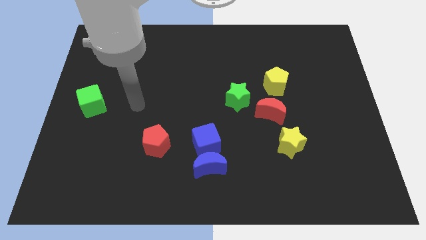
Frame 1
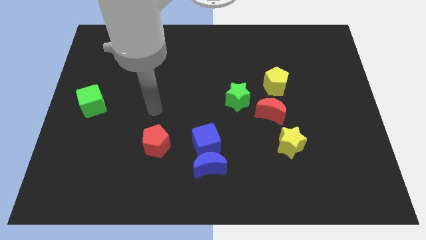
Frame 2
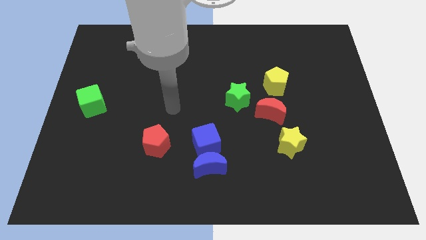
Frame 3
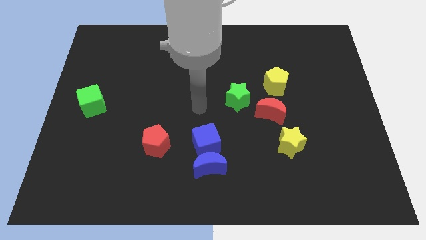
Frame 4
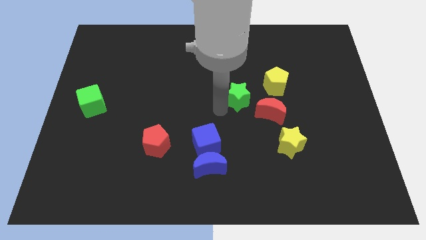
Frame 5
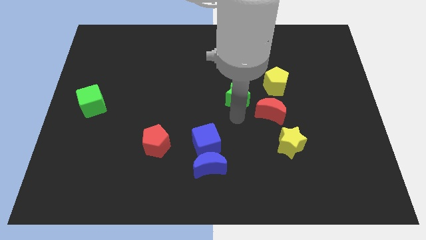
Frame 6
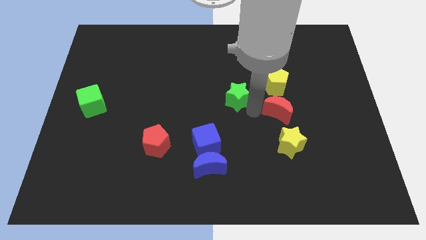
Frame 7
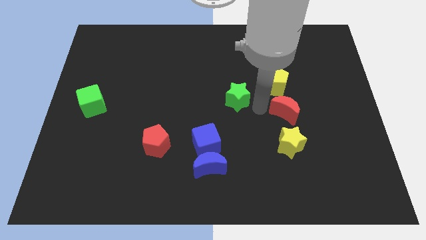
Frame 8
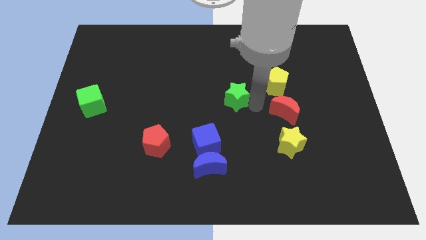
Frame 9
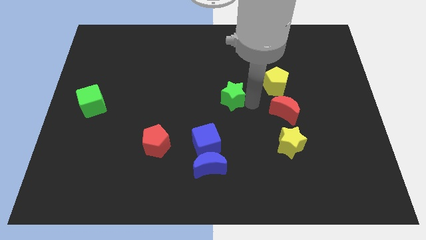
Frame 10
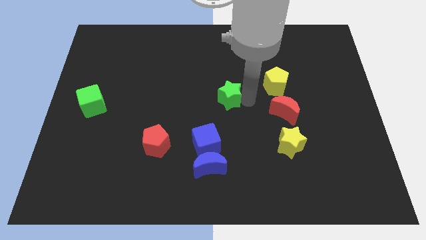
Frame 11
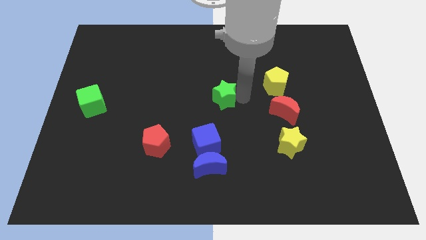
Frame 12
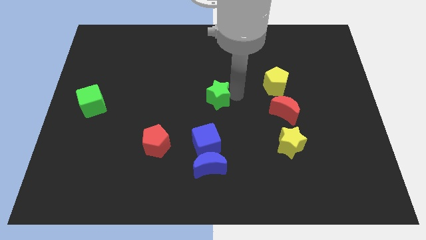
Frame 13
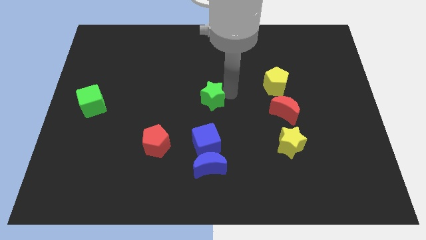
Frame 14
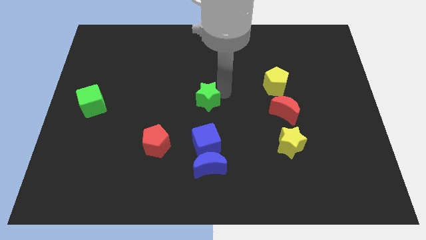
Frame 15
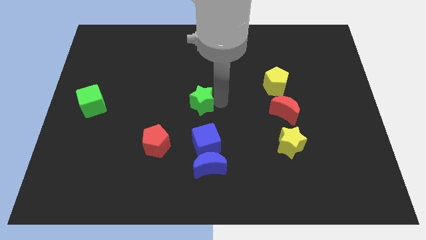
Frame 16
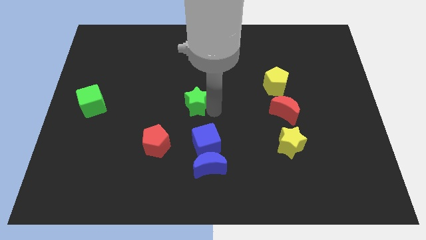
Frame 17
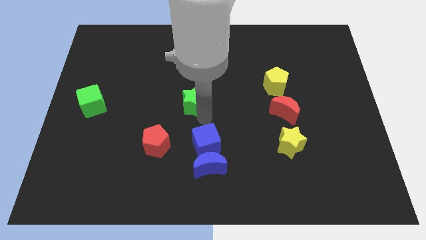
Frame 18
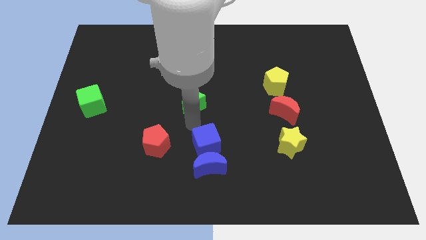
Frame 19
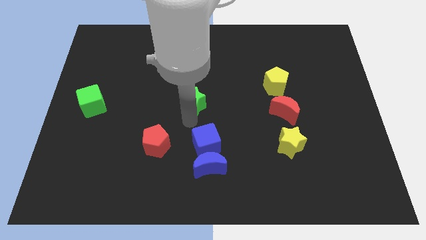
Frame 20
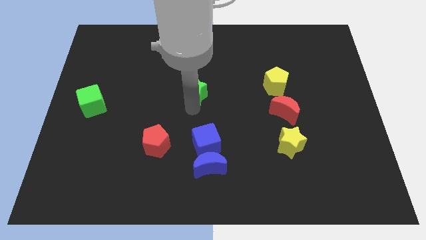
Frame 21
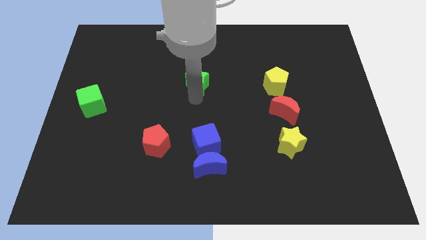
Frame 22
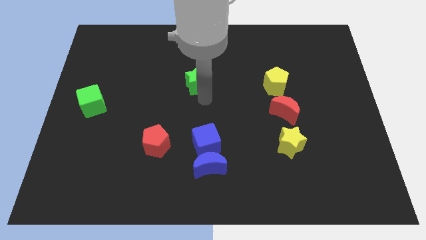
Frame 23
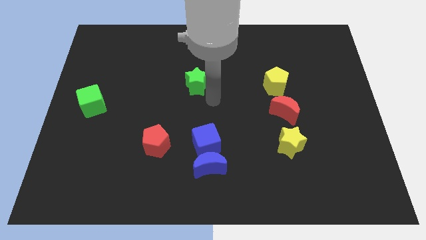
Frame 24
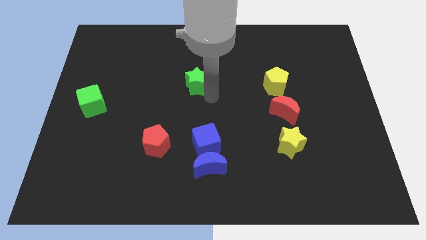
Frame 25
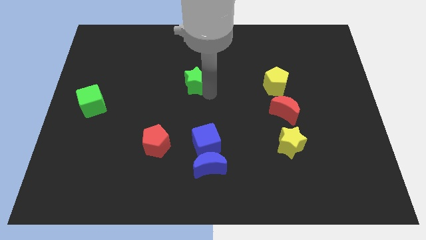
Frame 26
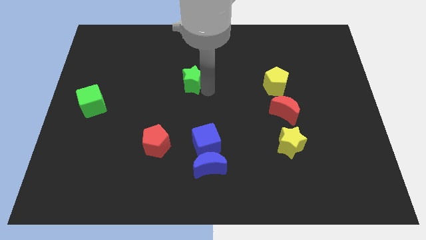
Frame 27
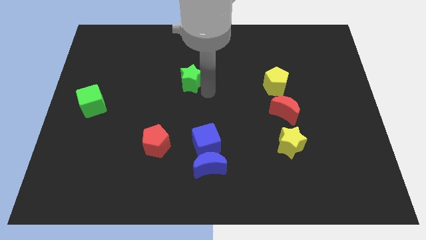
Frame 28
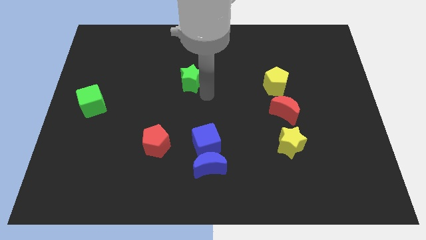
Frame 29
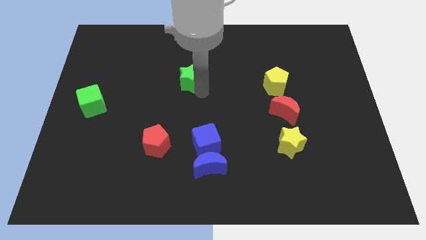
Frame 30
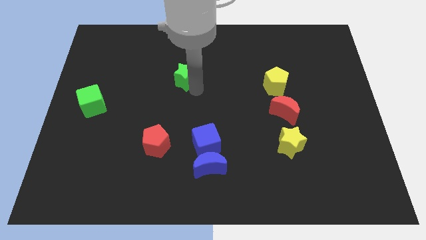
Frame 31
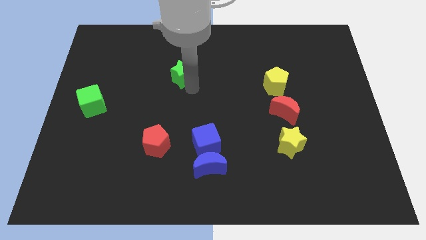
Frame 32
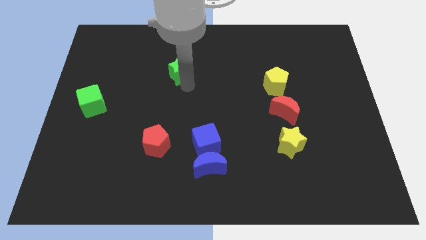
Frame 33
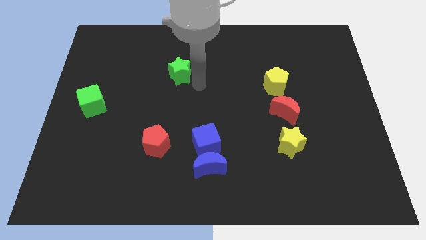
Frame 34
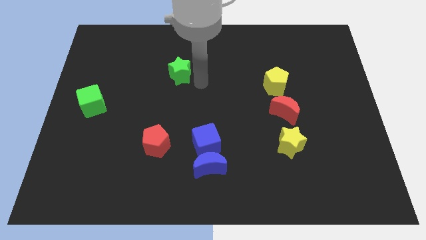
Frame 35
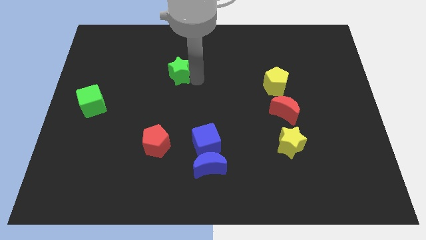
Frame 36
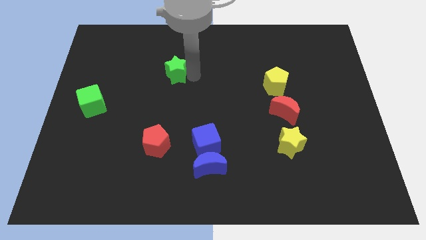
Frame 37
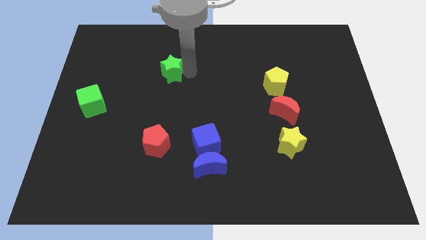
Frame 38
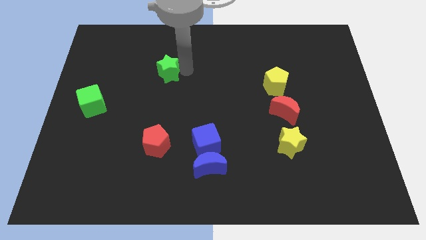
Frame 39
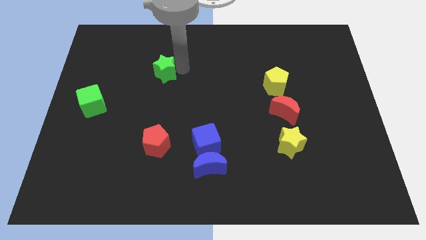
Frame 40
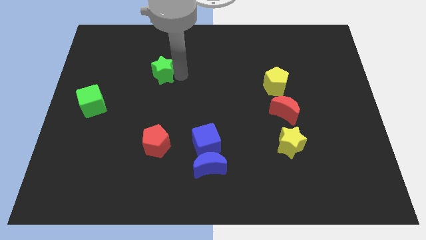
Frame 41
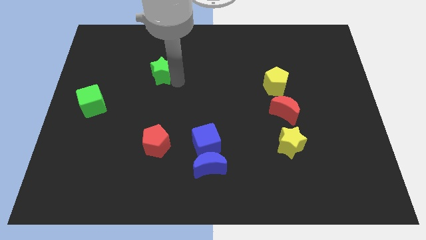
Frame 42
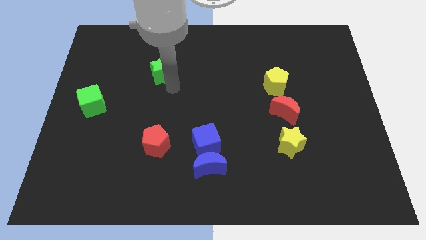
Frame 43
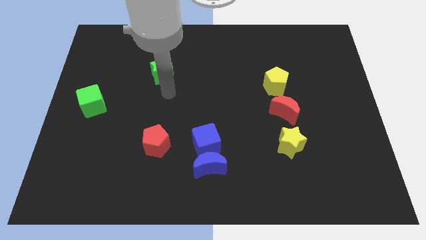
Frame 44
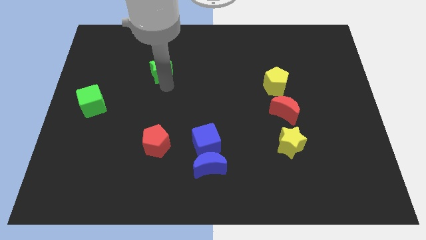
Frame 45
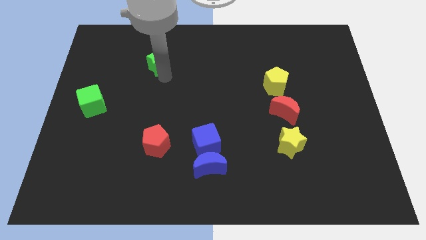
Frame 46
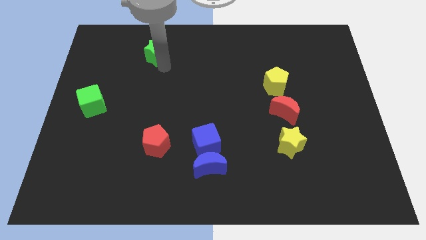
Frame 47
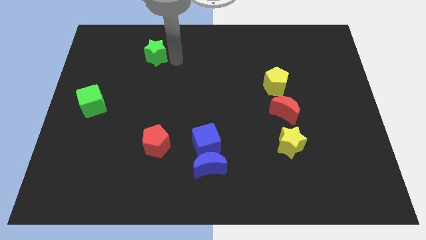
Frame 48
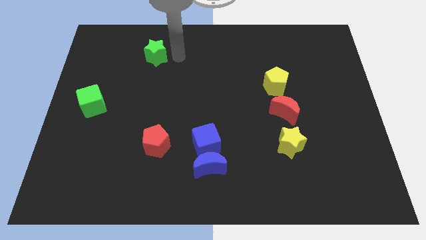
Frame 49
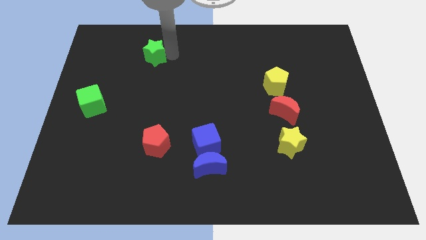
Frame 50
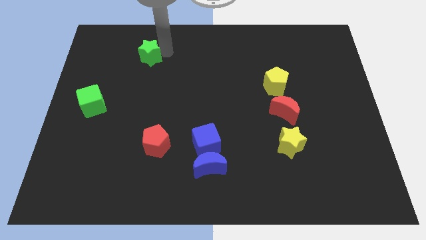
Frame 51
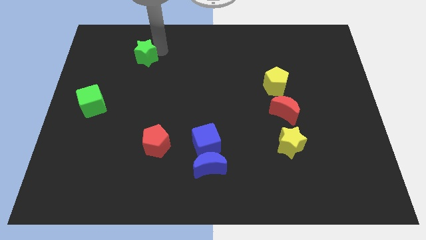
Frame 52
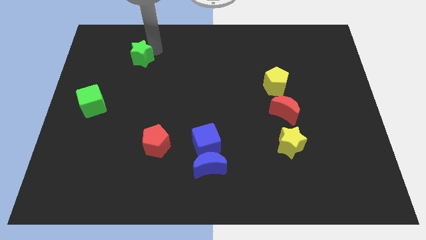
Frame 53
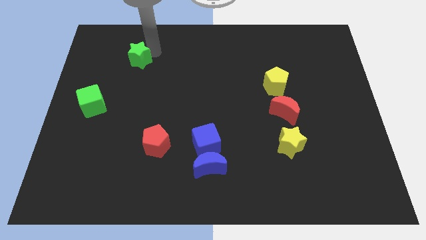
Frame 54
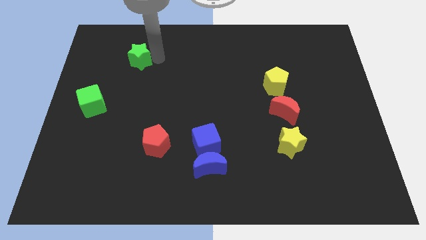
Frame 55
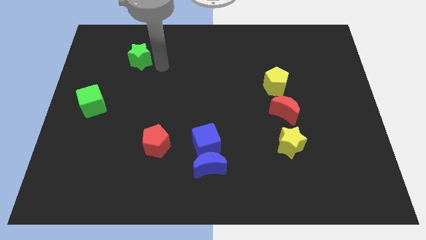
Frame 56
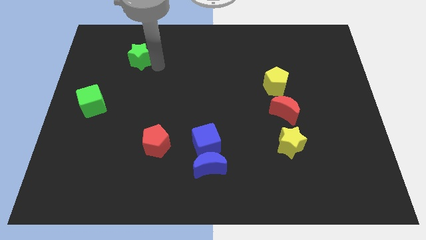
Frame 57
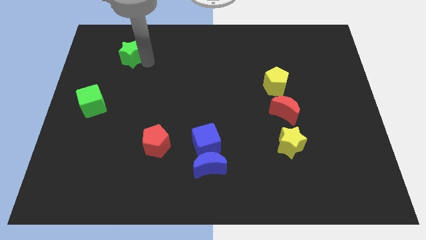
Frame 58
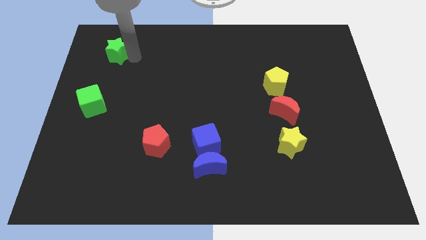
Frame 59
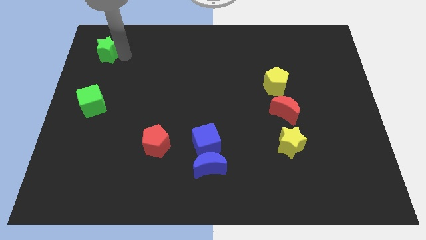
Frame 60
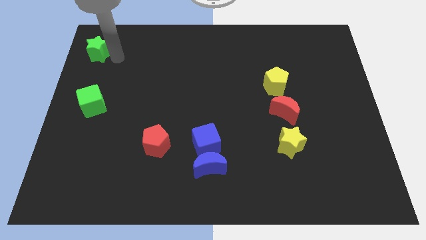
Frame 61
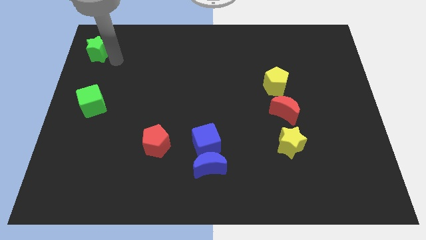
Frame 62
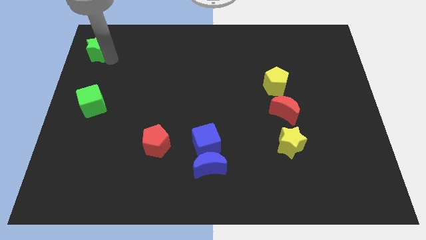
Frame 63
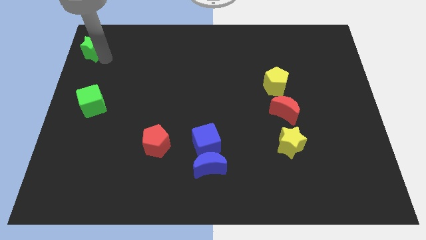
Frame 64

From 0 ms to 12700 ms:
put the green star to the top left corner
